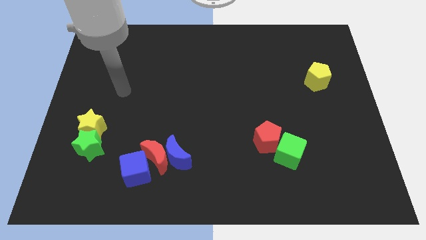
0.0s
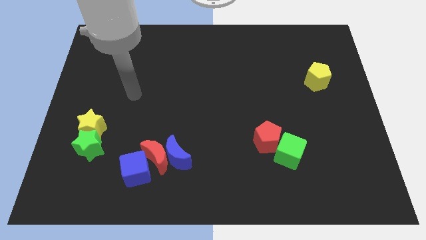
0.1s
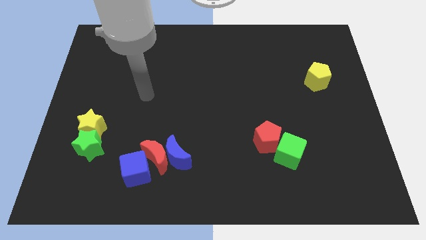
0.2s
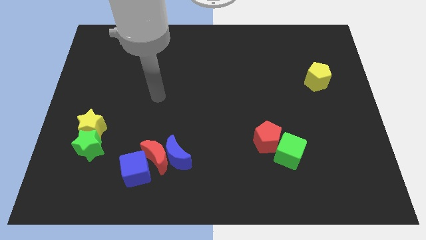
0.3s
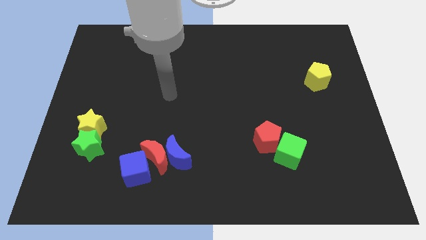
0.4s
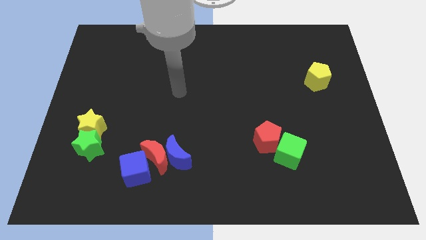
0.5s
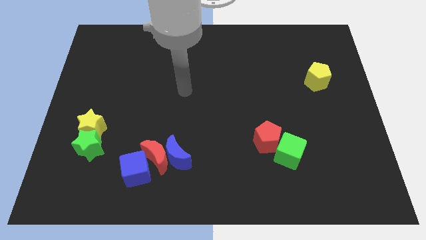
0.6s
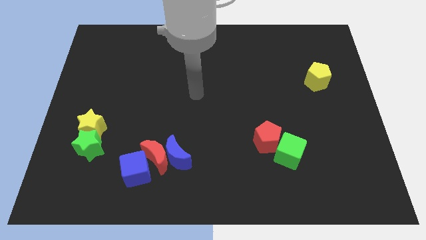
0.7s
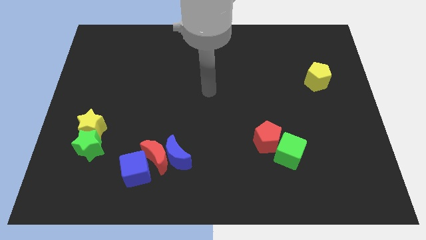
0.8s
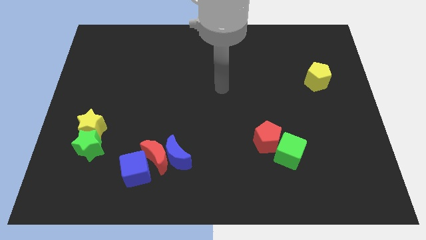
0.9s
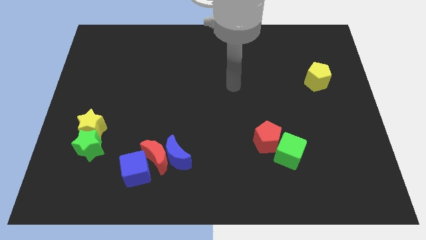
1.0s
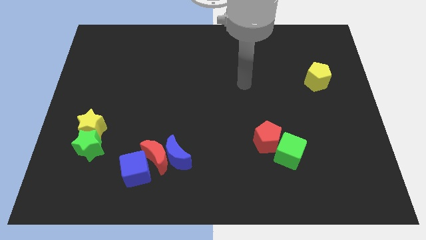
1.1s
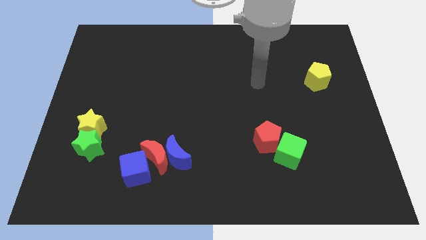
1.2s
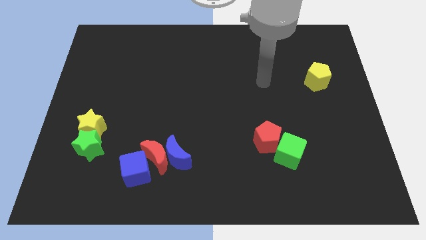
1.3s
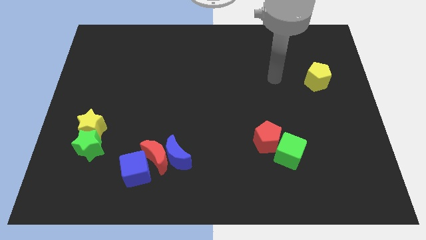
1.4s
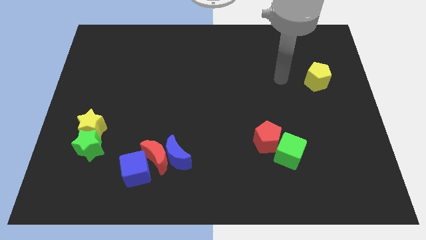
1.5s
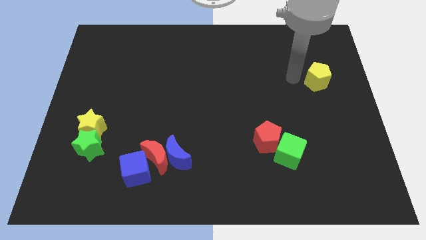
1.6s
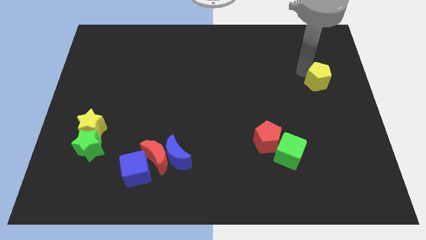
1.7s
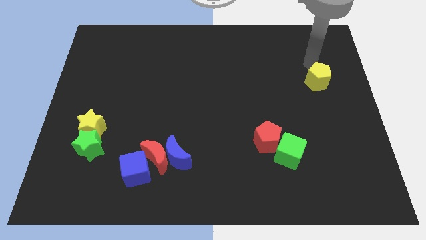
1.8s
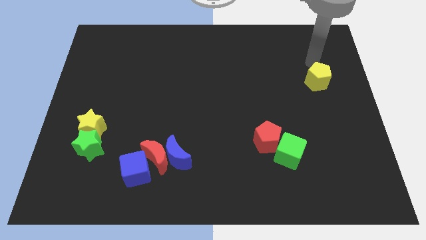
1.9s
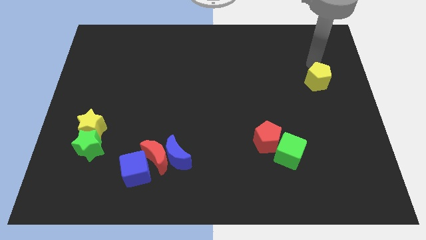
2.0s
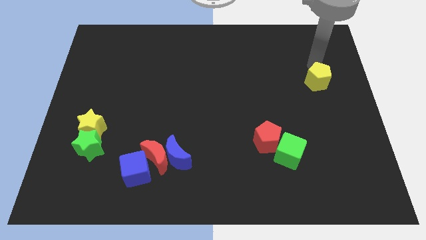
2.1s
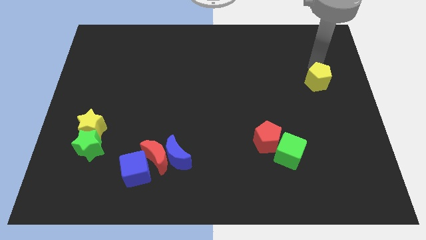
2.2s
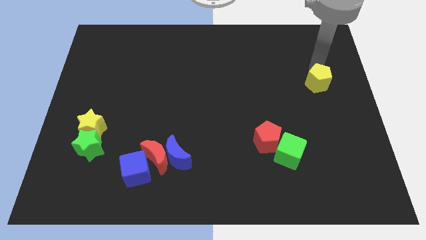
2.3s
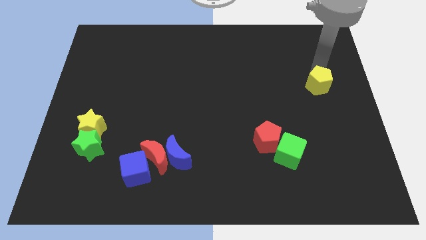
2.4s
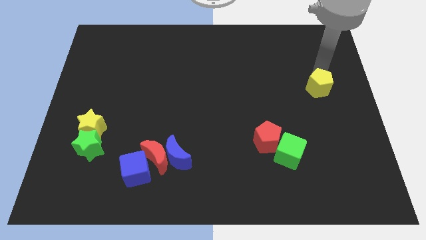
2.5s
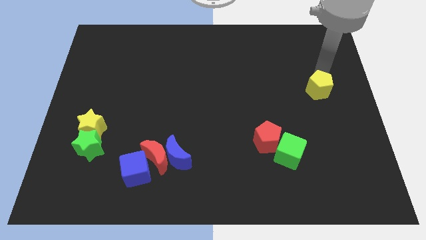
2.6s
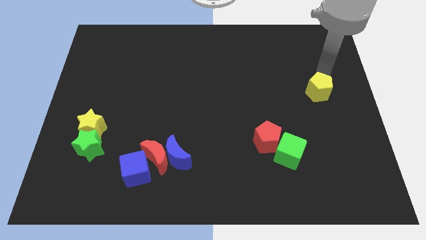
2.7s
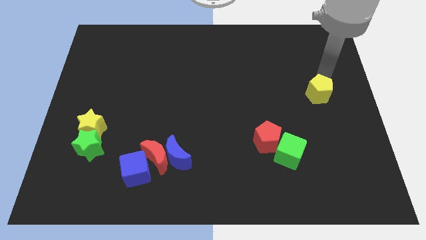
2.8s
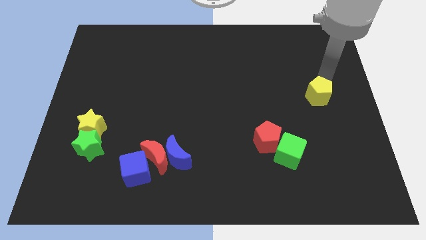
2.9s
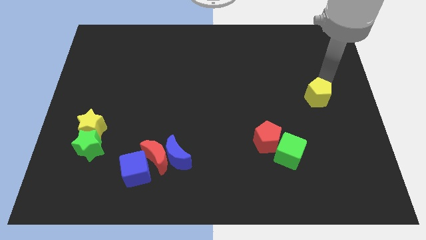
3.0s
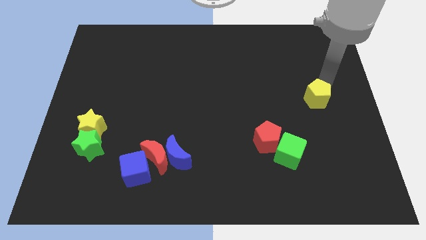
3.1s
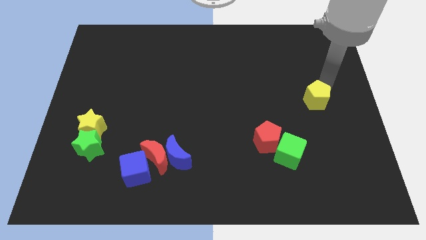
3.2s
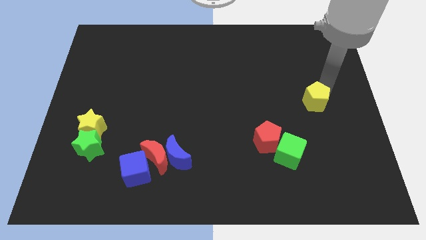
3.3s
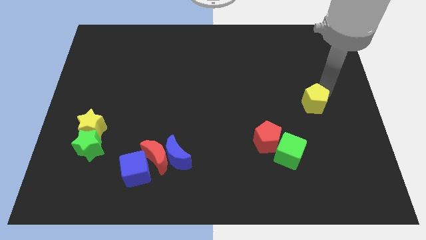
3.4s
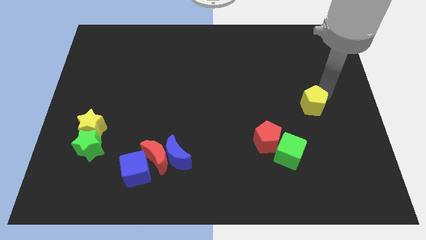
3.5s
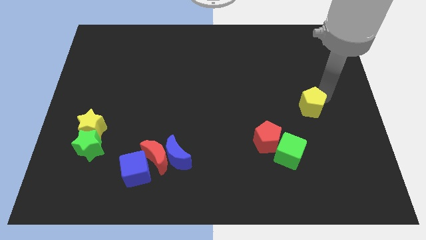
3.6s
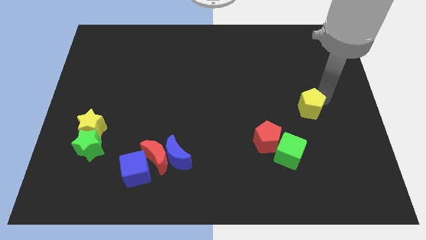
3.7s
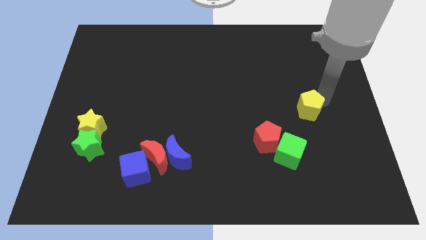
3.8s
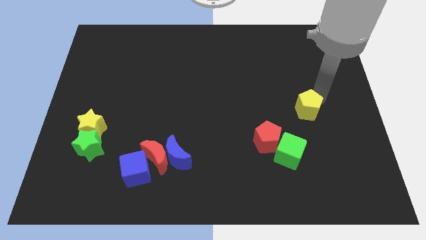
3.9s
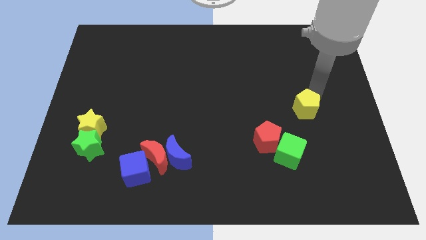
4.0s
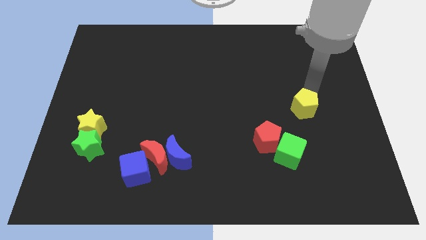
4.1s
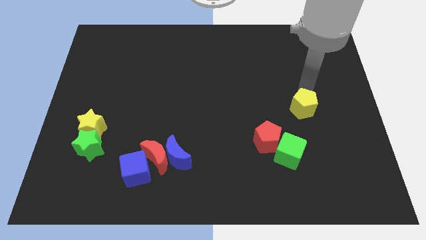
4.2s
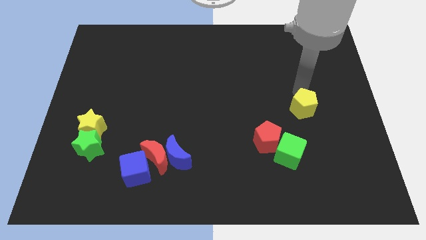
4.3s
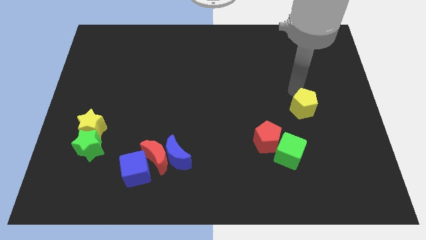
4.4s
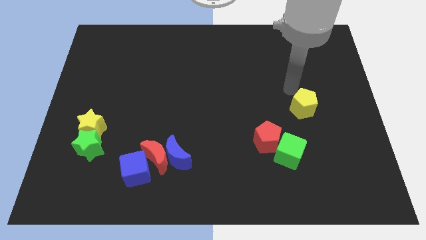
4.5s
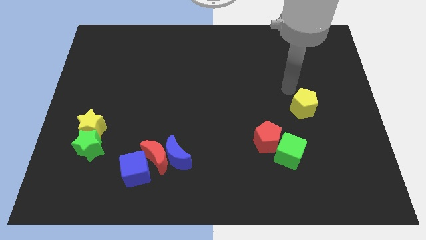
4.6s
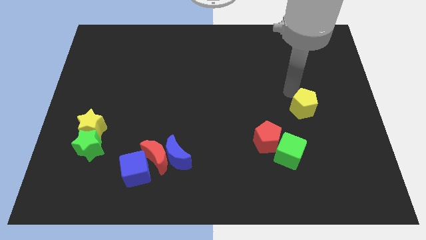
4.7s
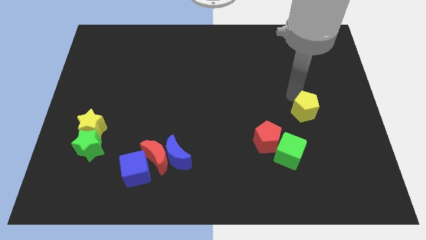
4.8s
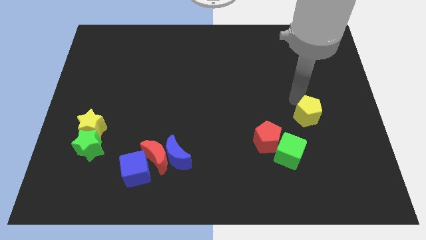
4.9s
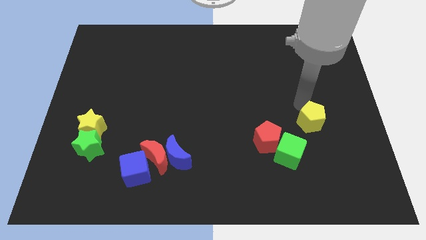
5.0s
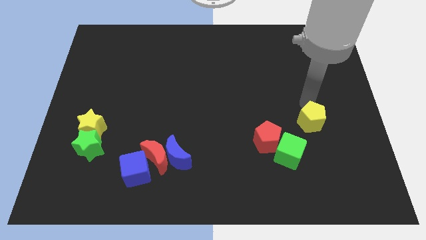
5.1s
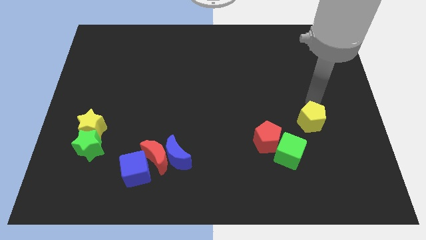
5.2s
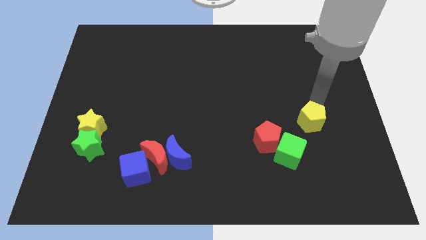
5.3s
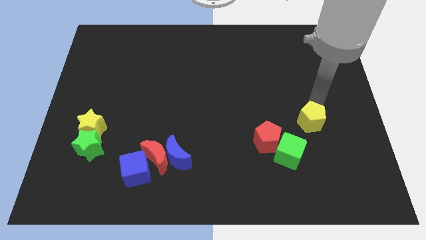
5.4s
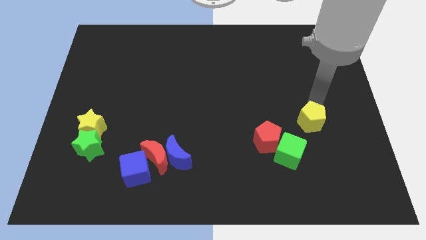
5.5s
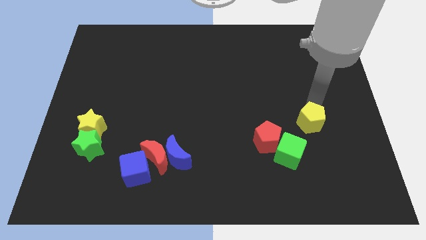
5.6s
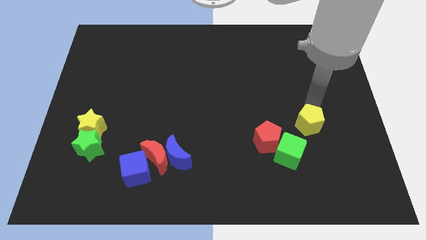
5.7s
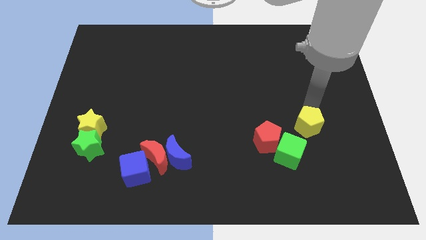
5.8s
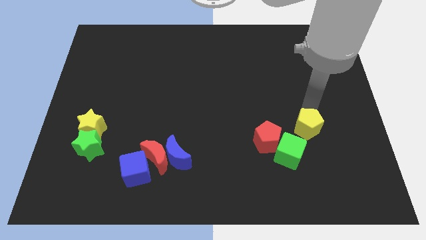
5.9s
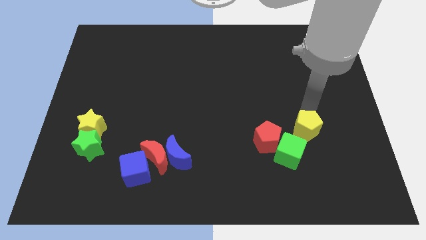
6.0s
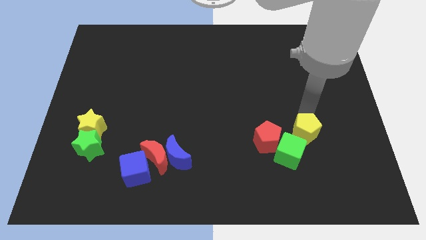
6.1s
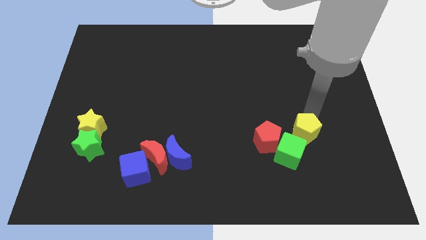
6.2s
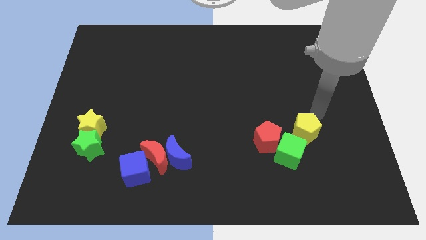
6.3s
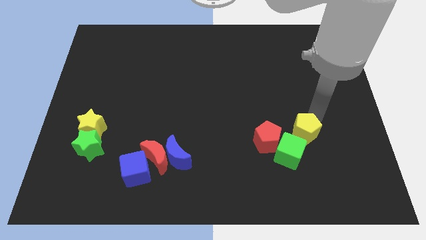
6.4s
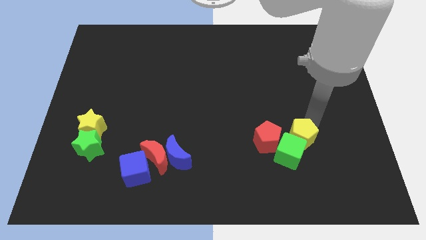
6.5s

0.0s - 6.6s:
put the yellow pentagon next to the green cube

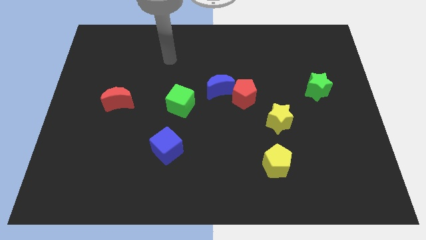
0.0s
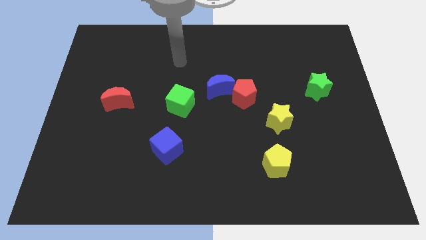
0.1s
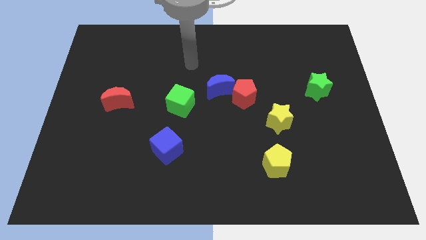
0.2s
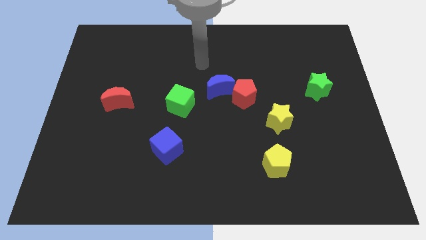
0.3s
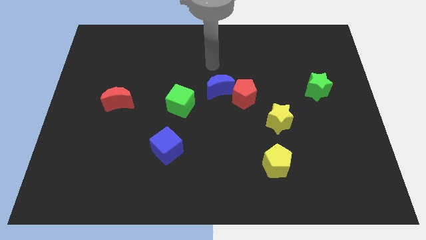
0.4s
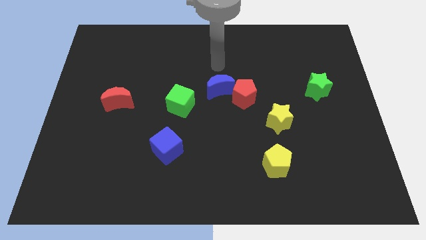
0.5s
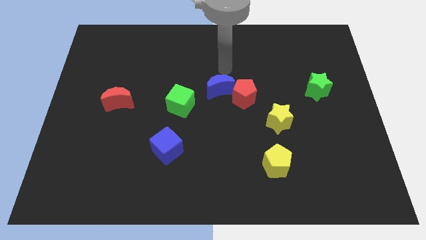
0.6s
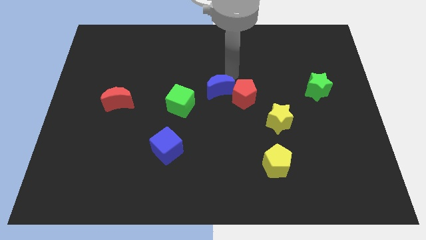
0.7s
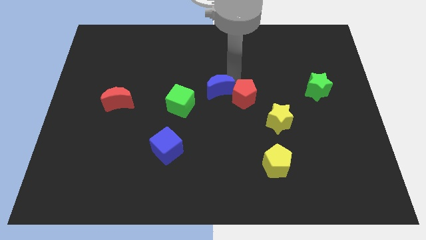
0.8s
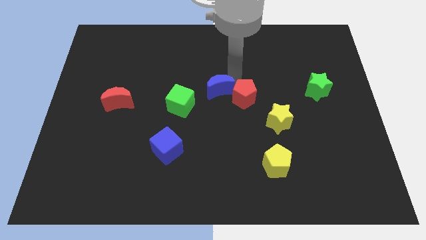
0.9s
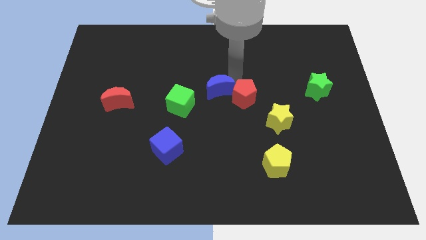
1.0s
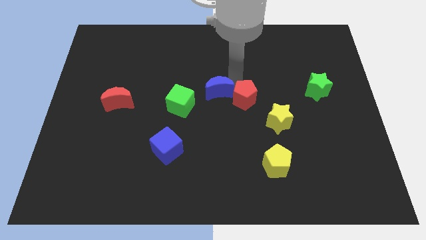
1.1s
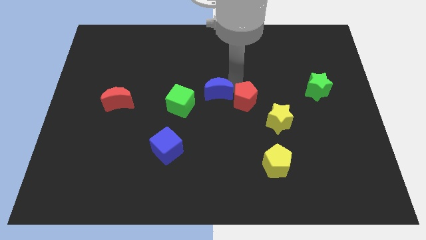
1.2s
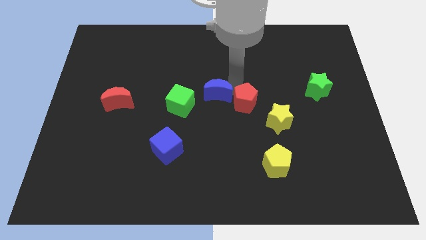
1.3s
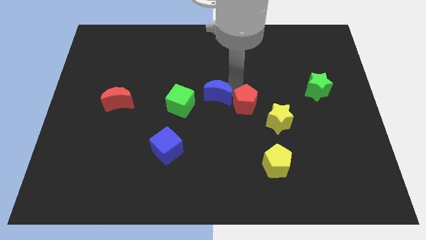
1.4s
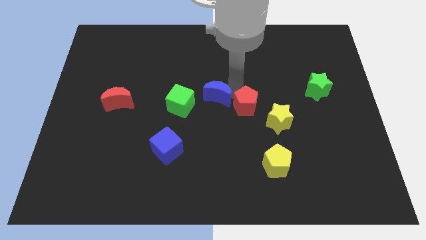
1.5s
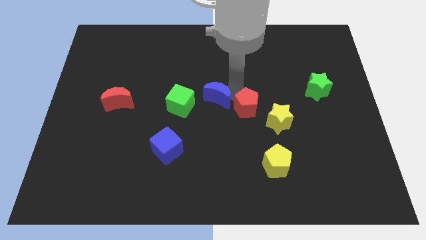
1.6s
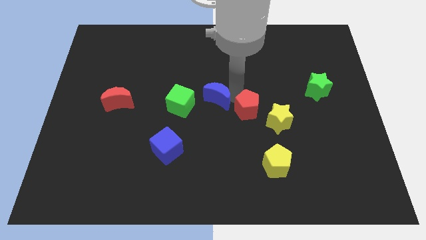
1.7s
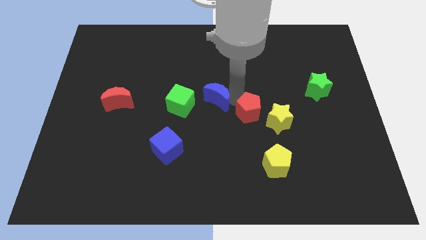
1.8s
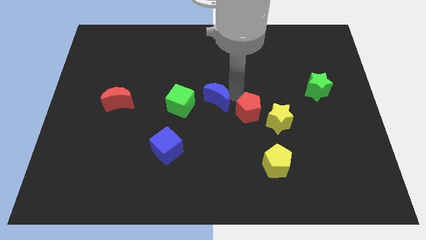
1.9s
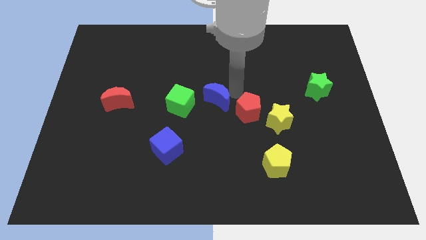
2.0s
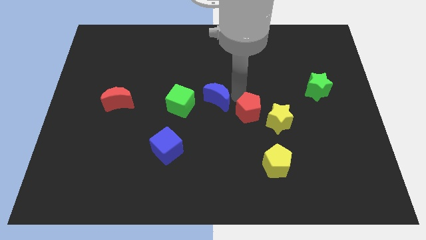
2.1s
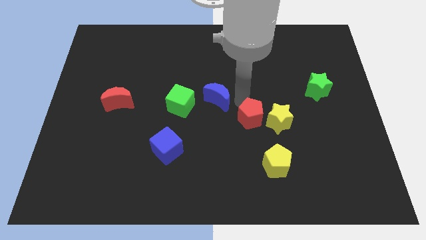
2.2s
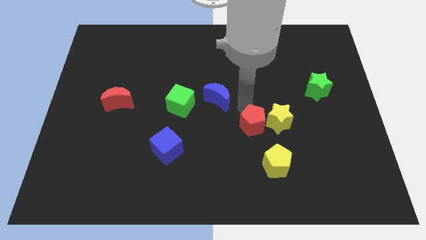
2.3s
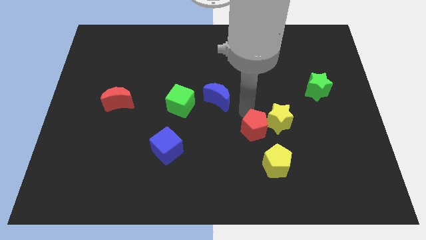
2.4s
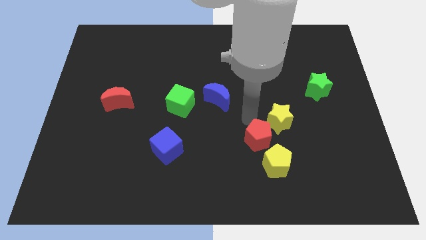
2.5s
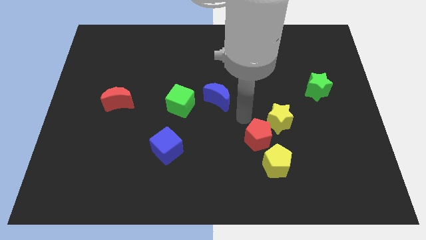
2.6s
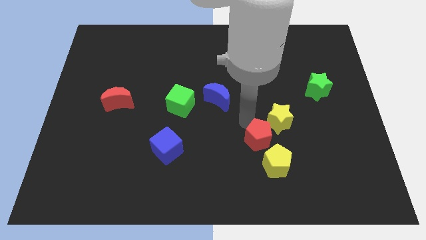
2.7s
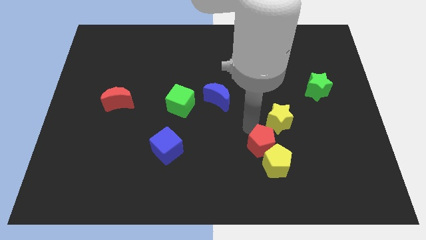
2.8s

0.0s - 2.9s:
push the red pentagon next to the yellow pentagon
